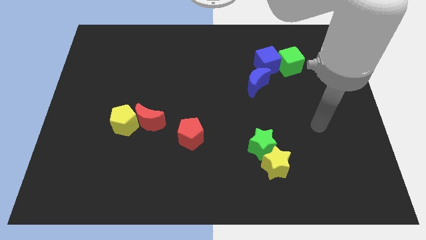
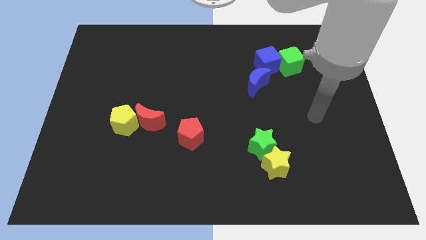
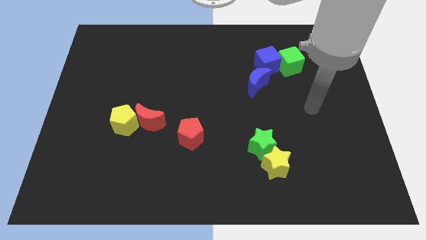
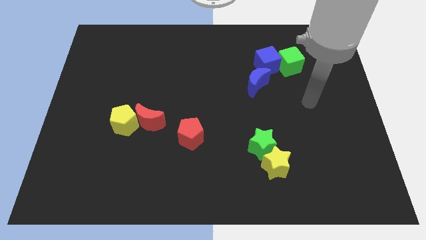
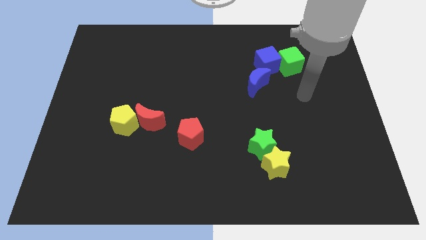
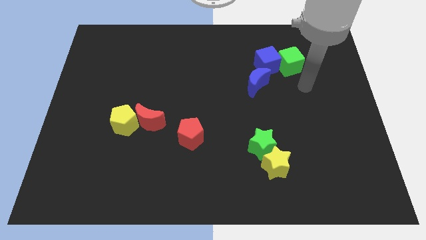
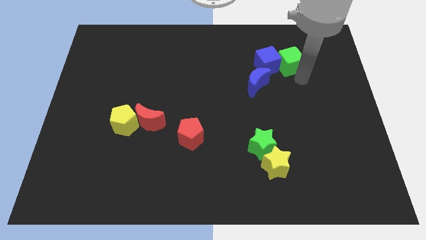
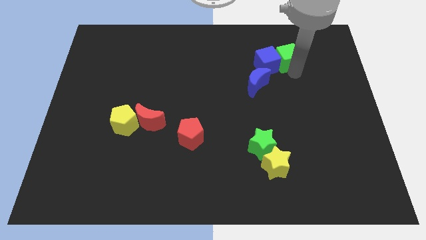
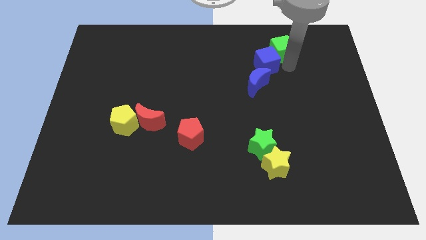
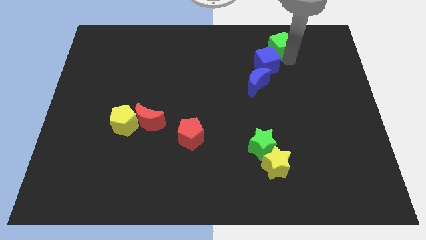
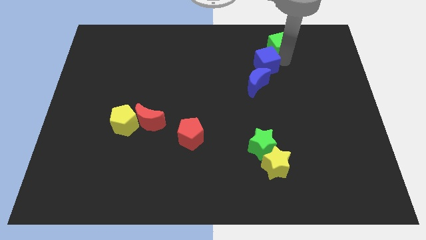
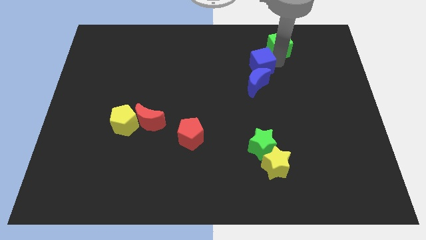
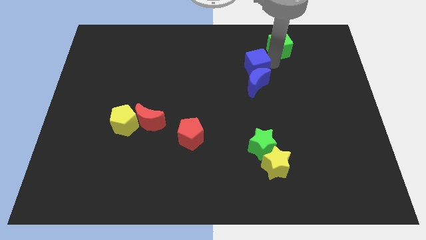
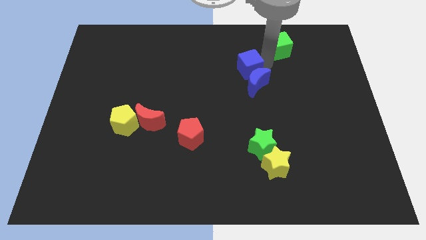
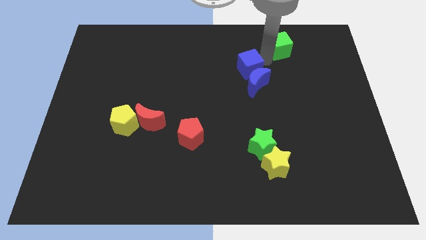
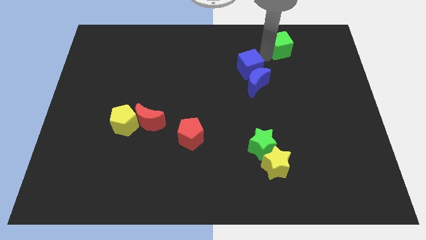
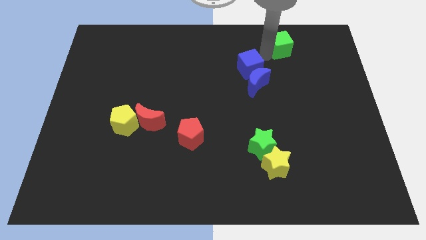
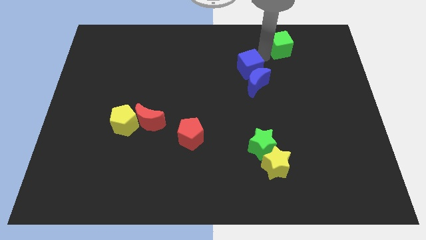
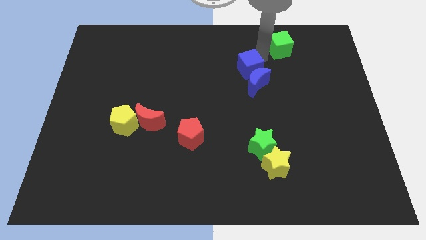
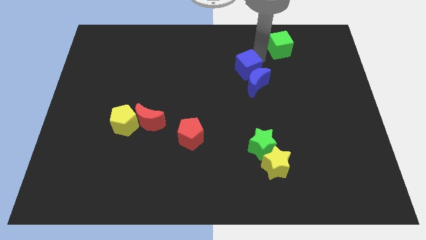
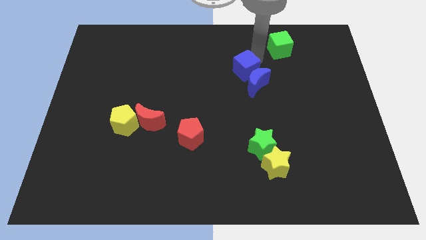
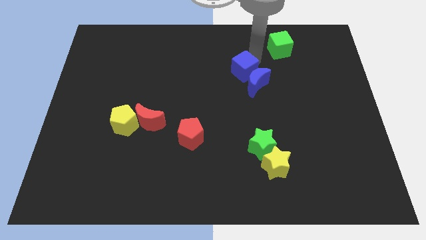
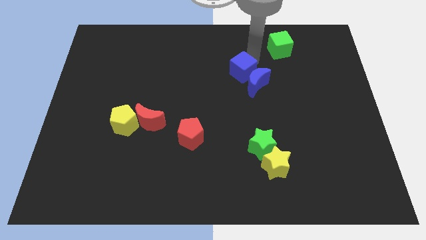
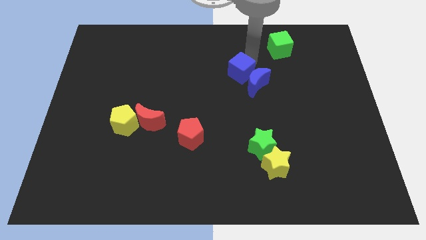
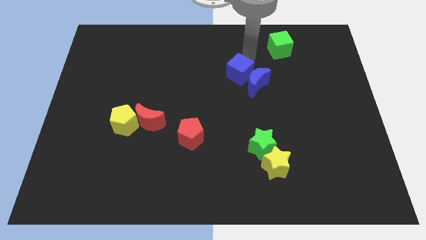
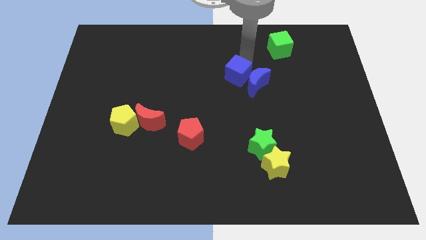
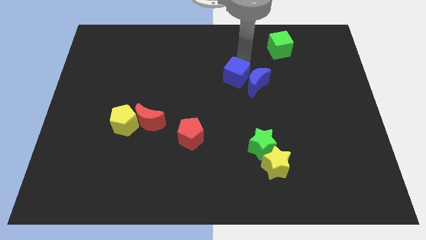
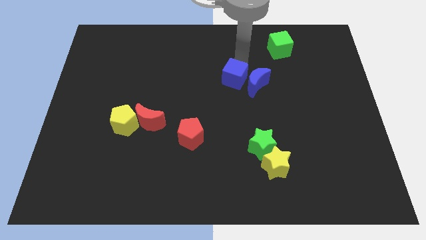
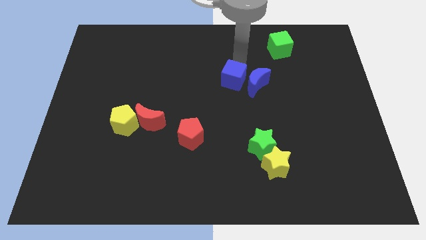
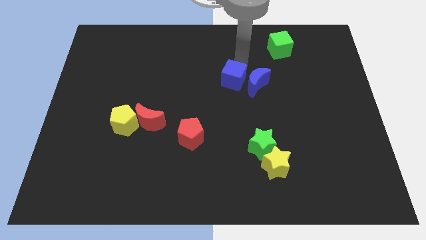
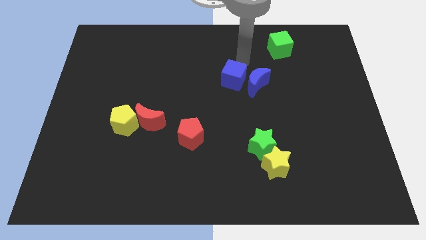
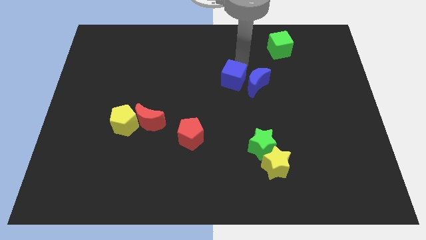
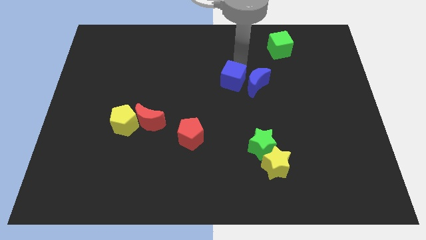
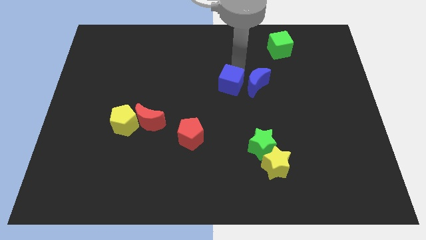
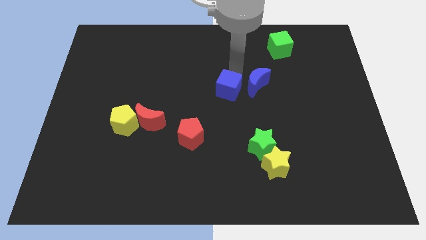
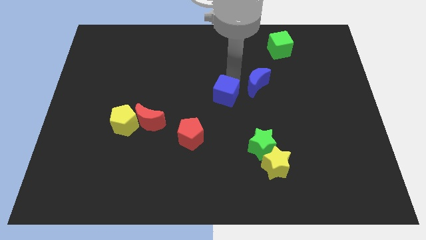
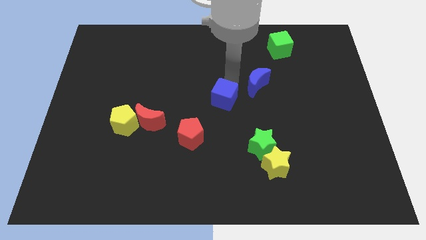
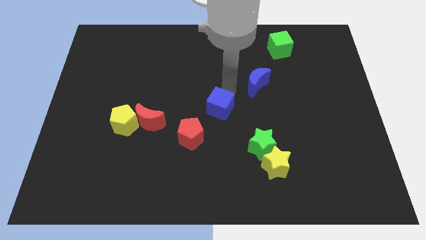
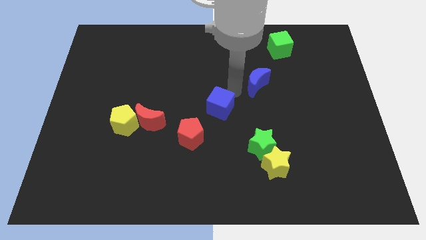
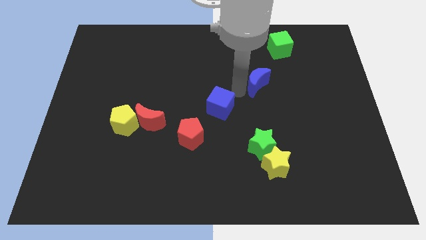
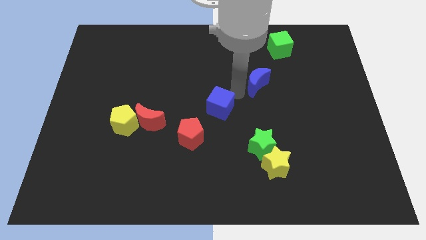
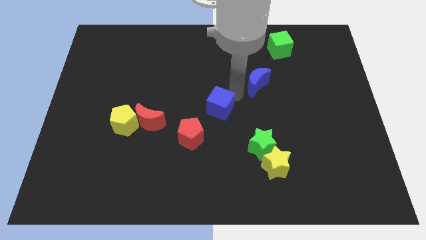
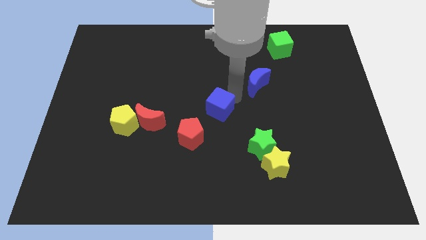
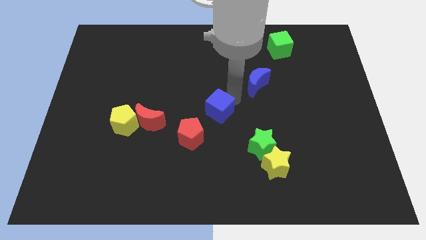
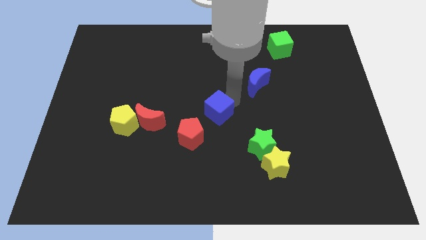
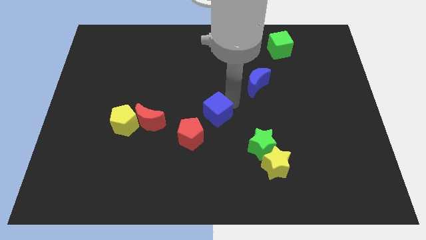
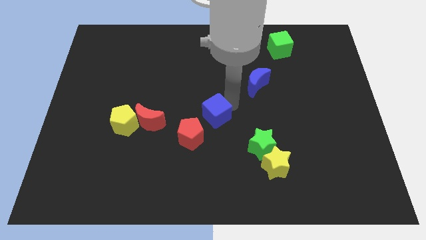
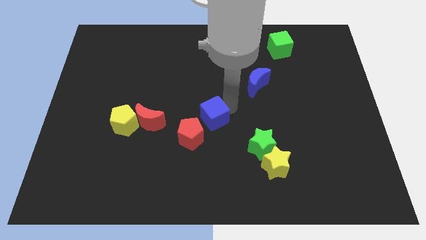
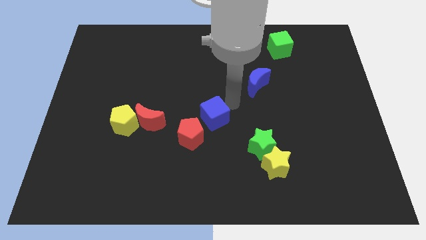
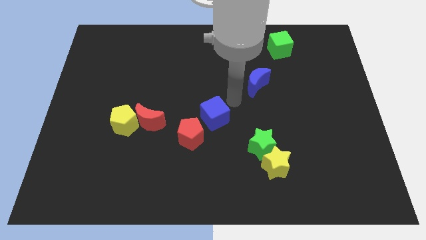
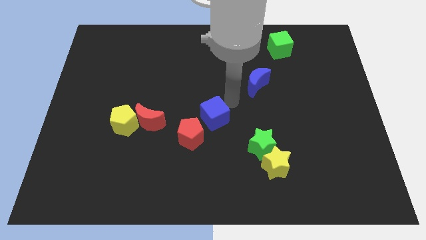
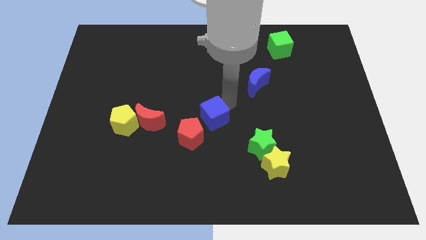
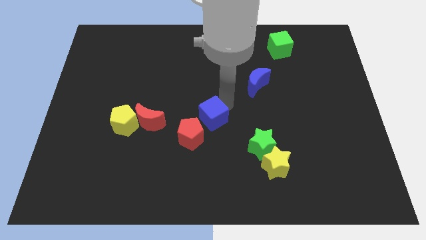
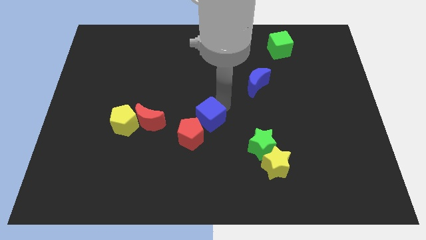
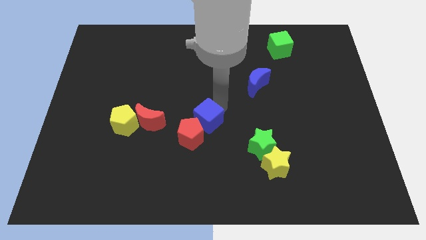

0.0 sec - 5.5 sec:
push the blue cube towards the red pentagon
